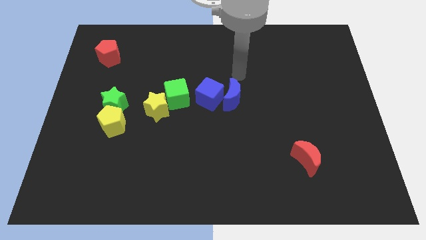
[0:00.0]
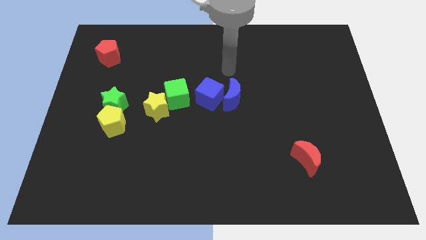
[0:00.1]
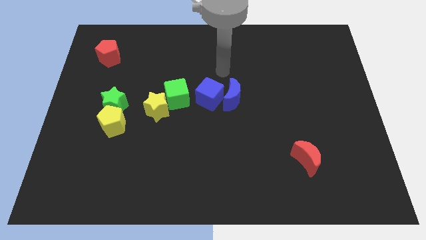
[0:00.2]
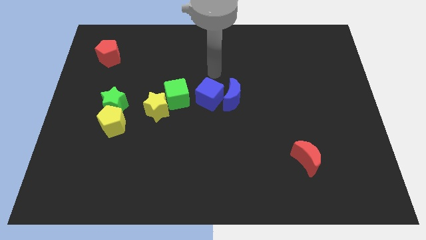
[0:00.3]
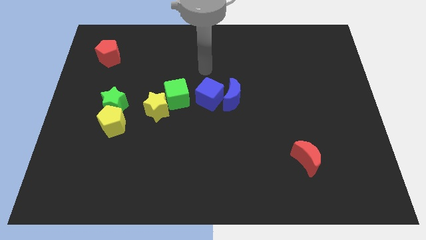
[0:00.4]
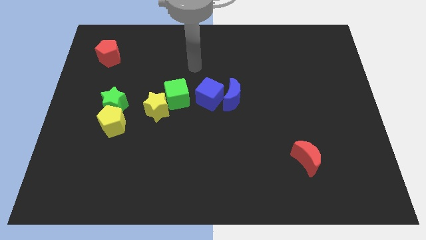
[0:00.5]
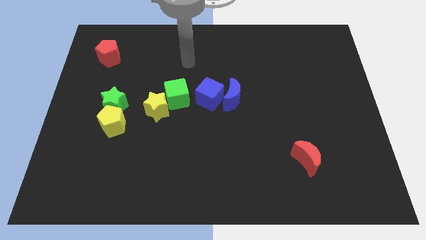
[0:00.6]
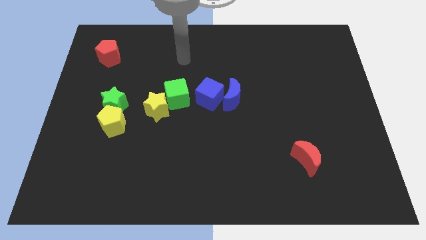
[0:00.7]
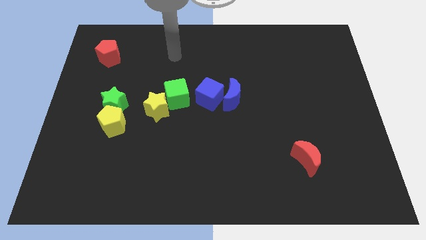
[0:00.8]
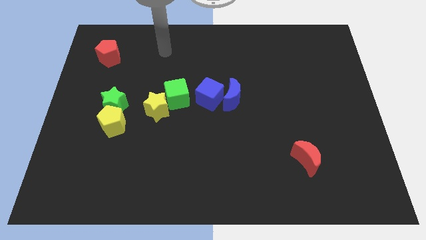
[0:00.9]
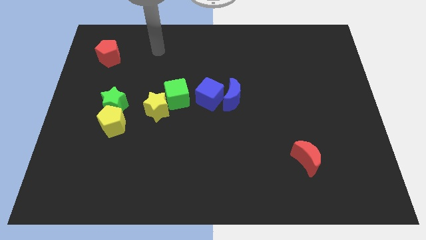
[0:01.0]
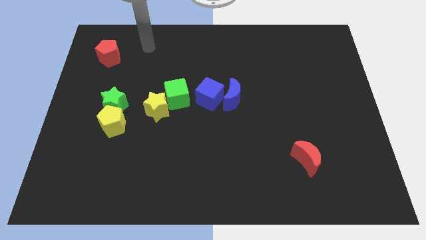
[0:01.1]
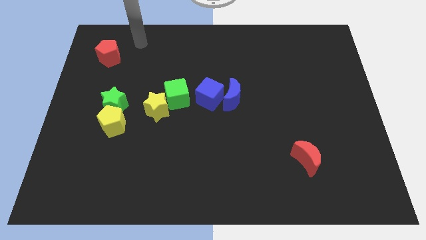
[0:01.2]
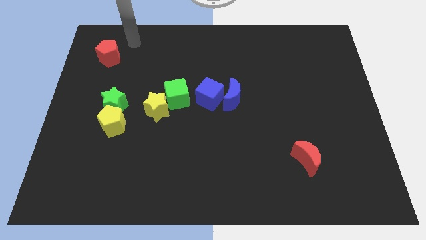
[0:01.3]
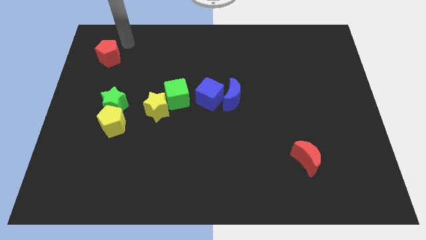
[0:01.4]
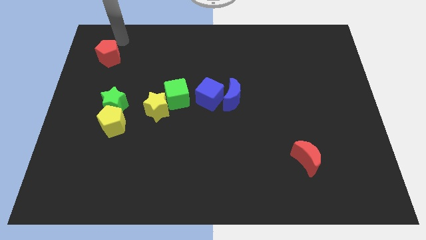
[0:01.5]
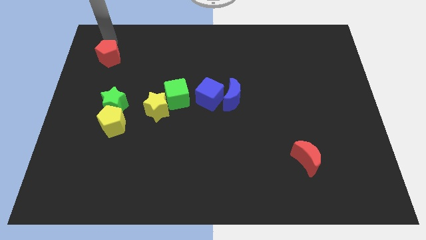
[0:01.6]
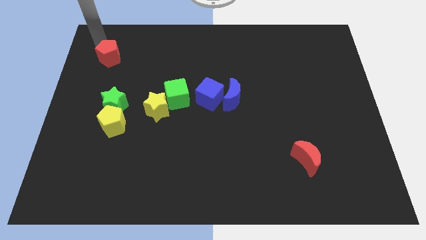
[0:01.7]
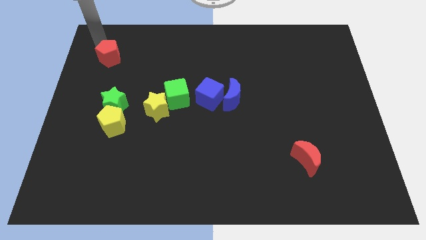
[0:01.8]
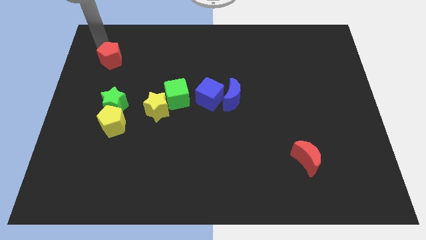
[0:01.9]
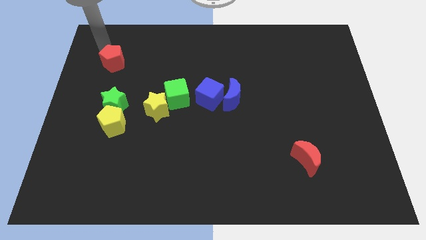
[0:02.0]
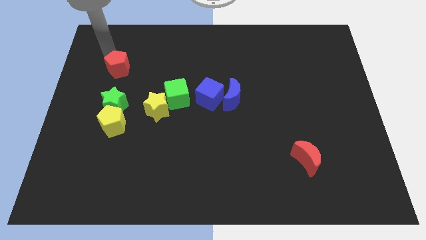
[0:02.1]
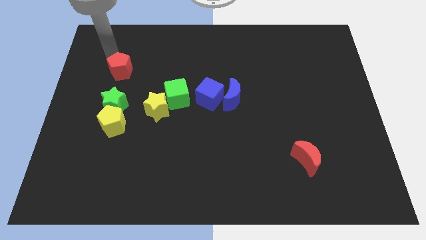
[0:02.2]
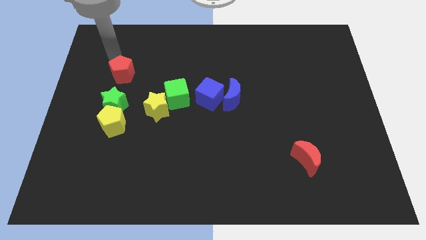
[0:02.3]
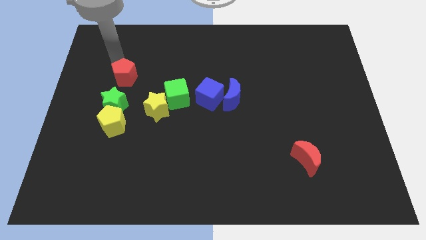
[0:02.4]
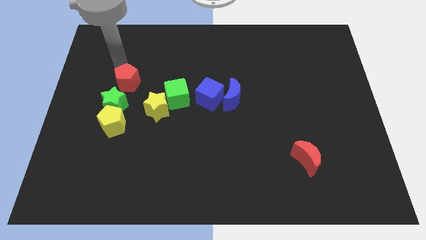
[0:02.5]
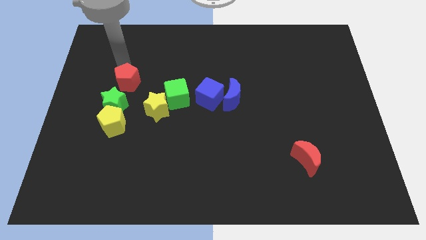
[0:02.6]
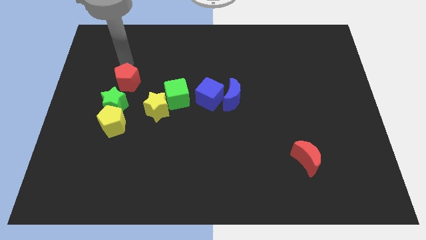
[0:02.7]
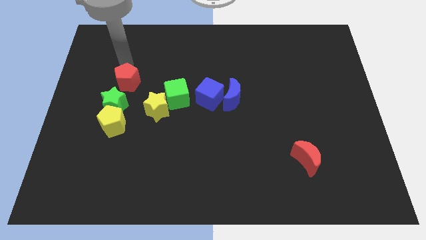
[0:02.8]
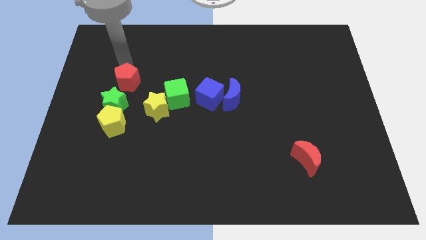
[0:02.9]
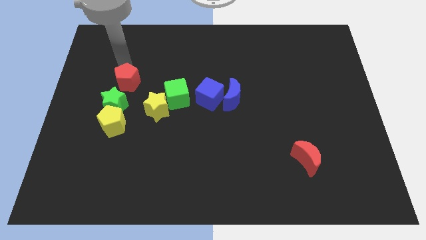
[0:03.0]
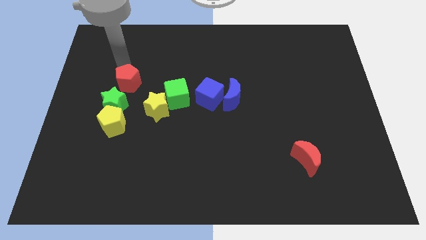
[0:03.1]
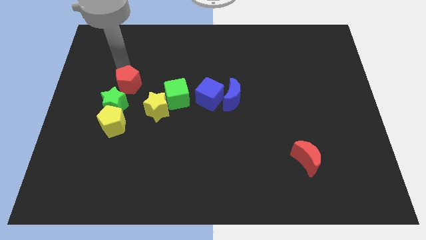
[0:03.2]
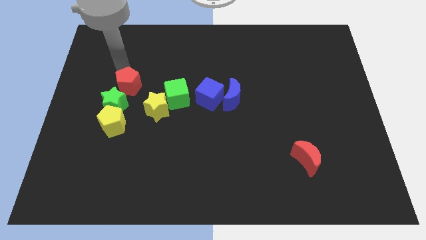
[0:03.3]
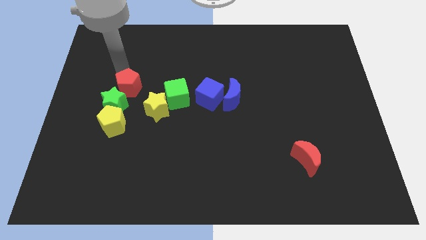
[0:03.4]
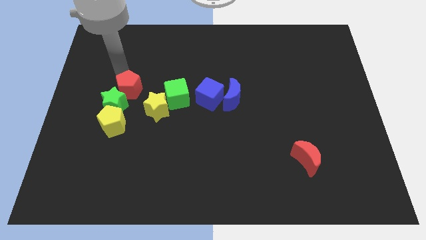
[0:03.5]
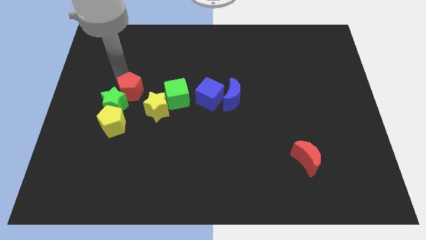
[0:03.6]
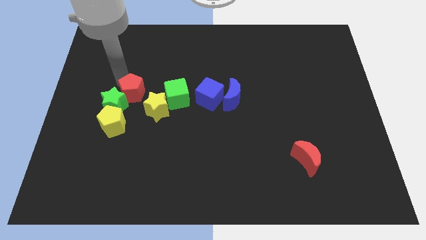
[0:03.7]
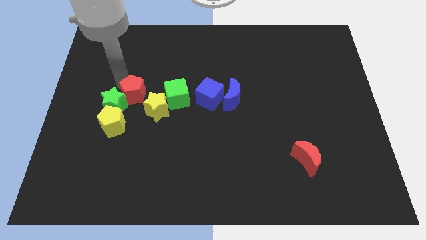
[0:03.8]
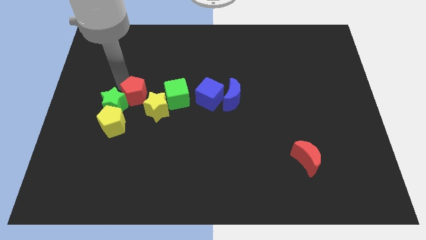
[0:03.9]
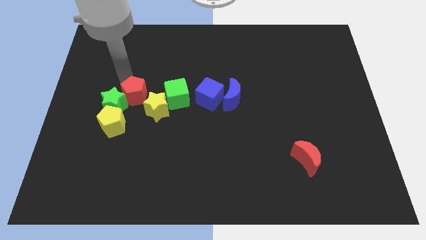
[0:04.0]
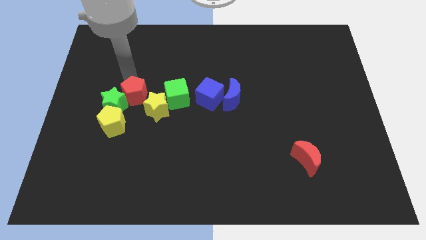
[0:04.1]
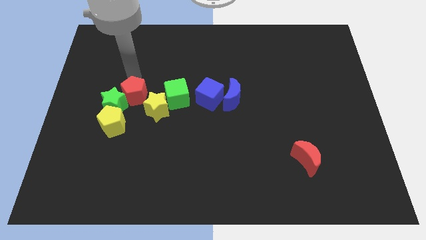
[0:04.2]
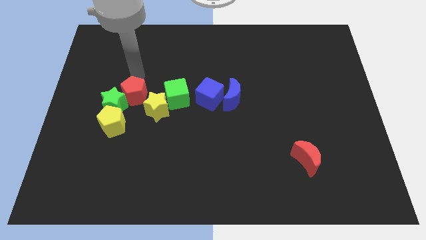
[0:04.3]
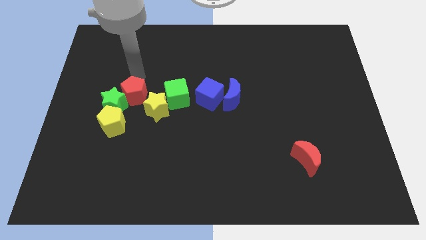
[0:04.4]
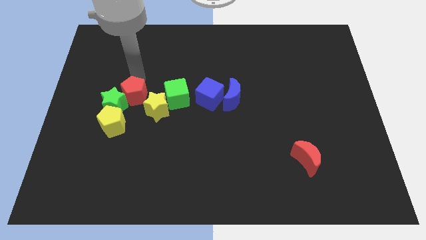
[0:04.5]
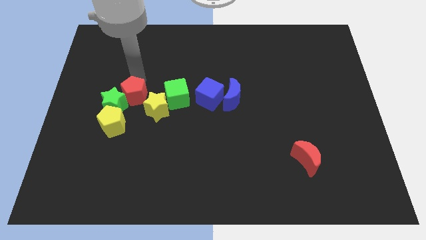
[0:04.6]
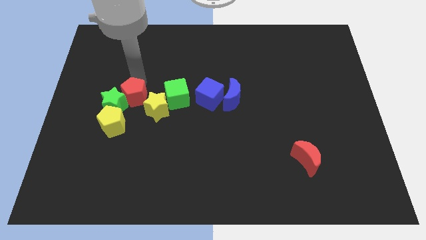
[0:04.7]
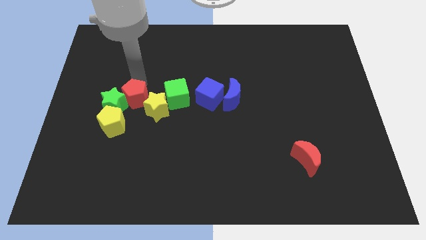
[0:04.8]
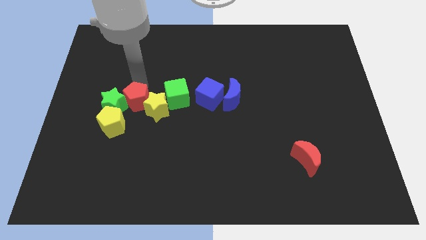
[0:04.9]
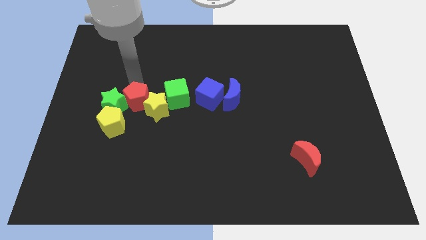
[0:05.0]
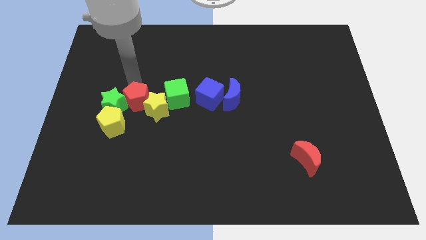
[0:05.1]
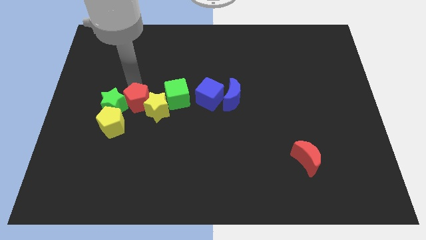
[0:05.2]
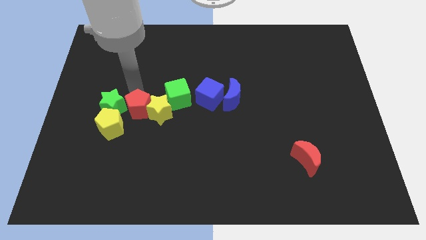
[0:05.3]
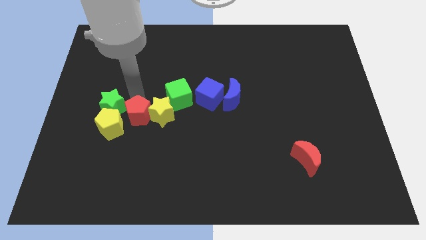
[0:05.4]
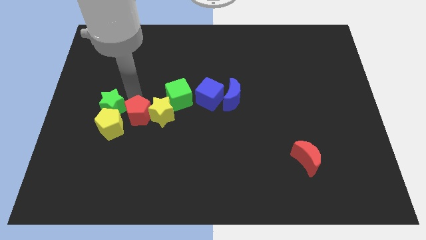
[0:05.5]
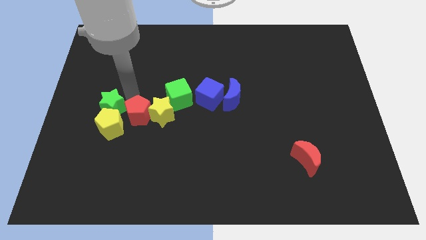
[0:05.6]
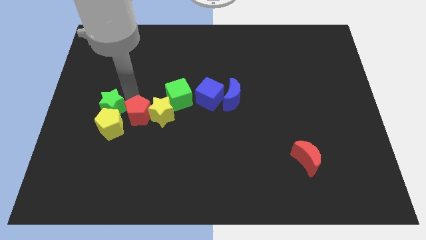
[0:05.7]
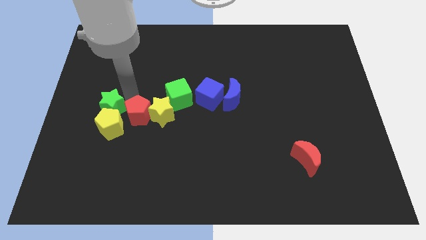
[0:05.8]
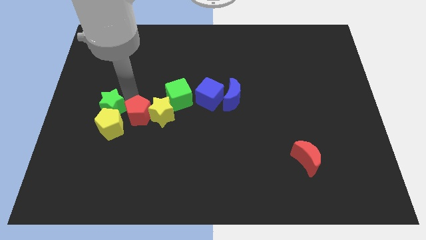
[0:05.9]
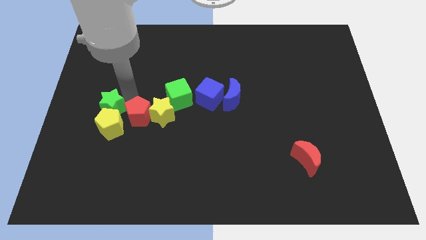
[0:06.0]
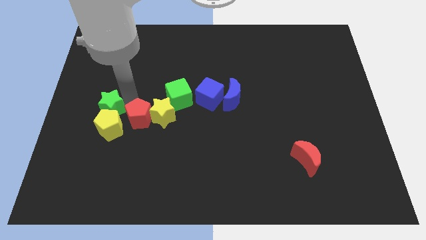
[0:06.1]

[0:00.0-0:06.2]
push the red pentagon down and to the right

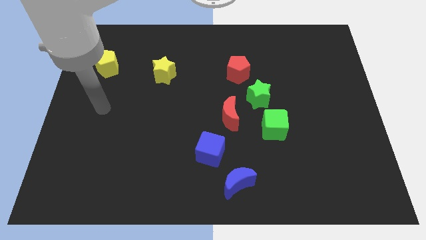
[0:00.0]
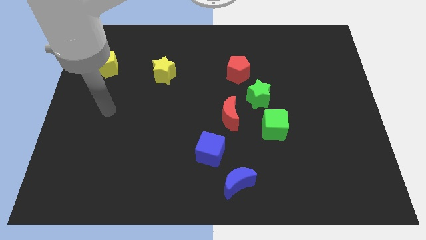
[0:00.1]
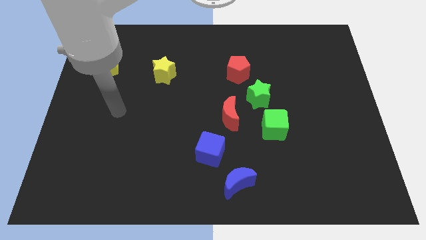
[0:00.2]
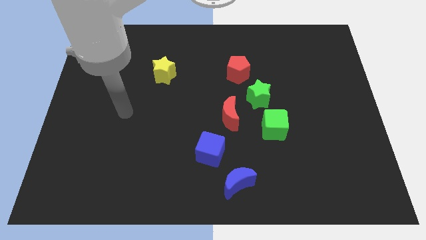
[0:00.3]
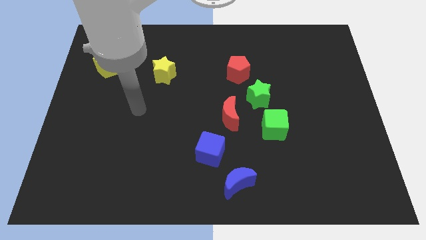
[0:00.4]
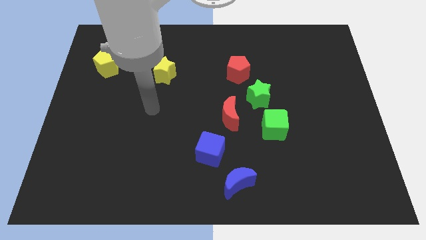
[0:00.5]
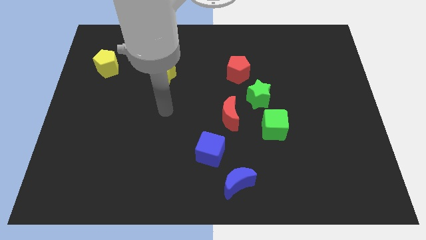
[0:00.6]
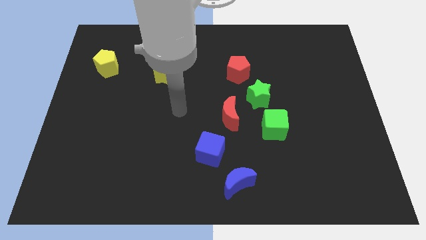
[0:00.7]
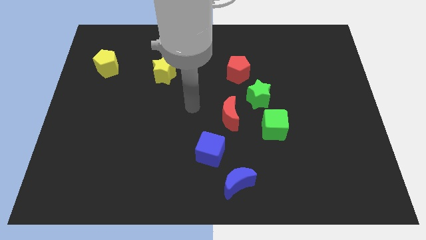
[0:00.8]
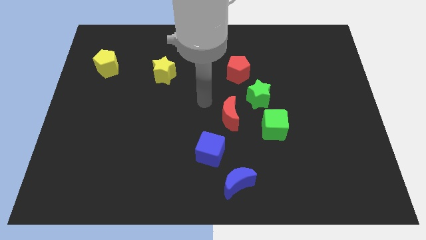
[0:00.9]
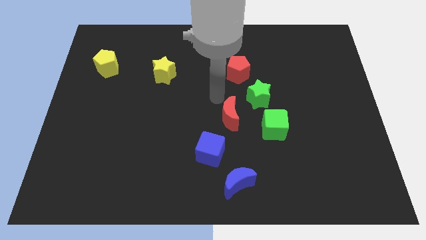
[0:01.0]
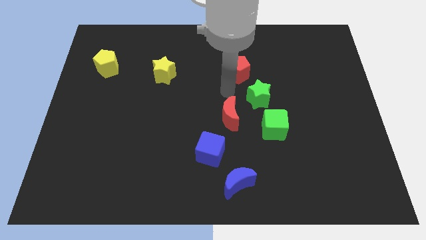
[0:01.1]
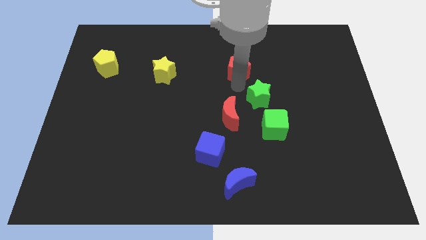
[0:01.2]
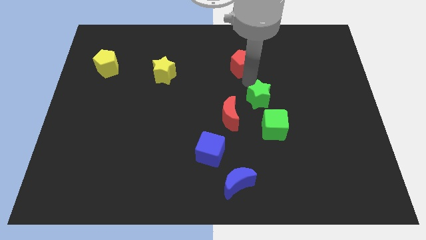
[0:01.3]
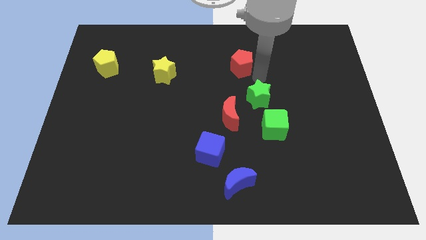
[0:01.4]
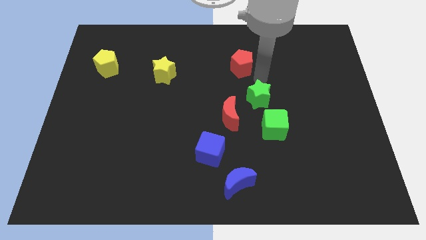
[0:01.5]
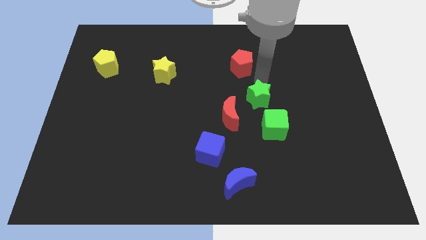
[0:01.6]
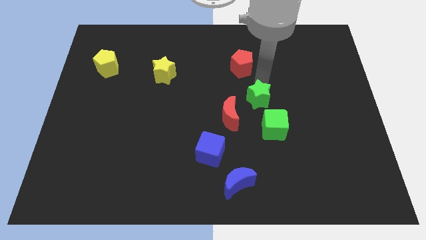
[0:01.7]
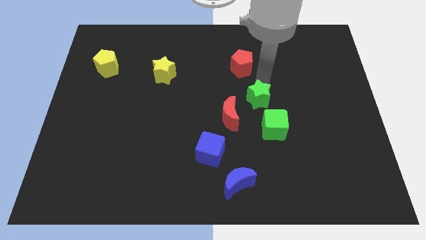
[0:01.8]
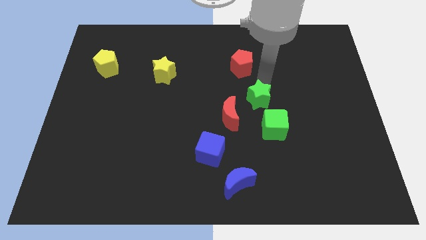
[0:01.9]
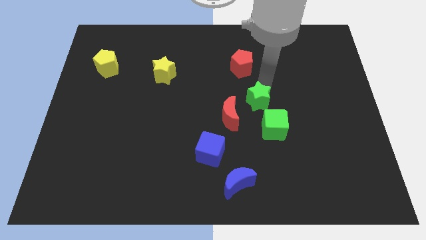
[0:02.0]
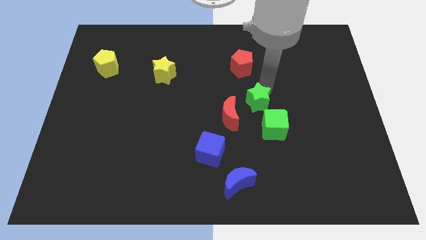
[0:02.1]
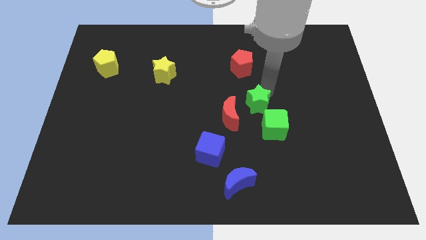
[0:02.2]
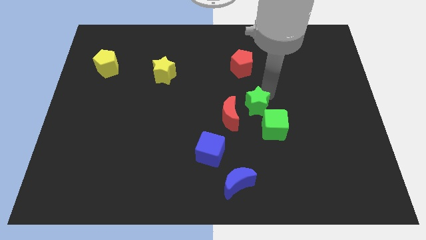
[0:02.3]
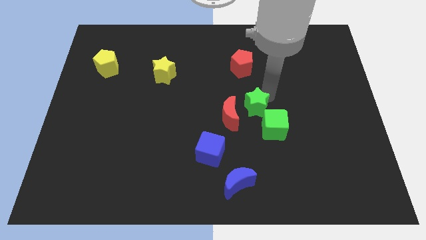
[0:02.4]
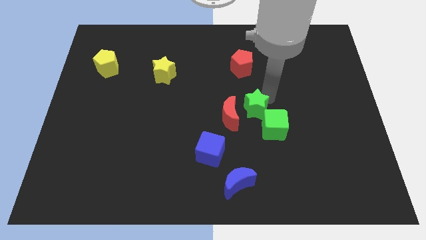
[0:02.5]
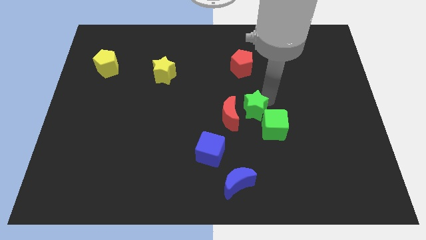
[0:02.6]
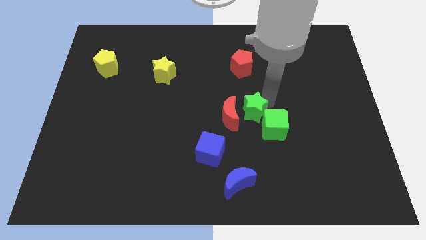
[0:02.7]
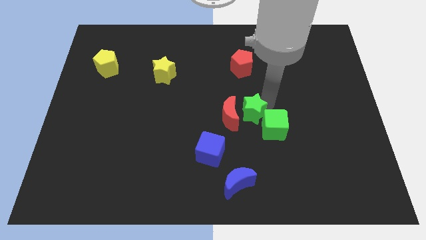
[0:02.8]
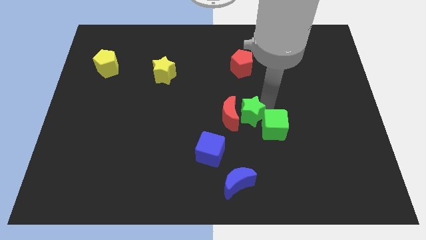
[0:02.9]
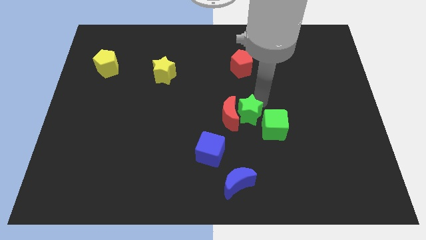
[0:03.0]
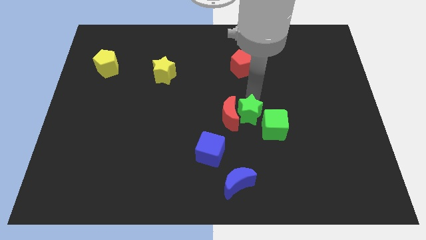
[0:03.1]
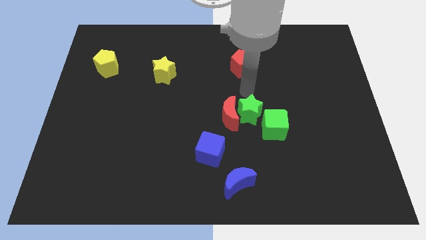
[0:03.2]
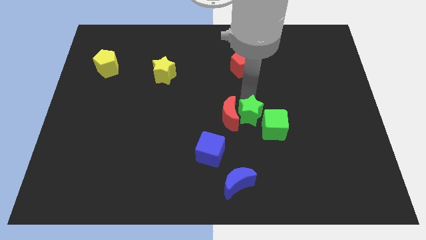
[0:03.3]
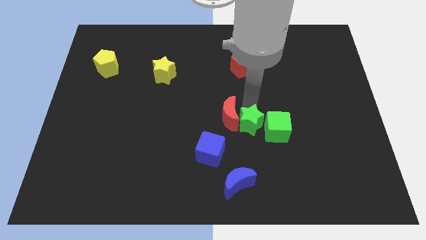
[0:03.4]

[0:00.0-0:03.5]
slightly move the green star down
